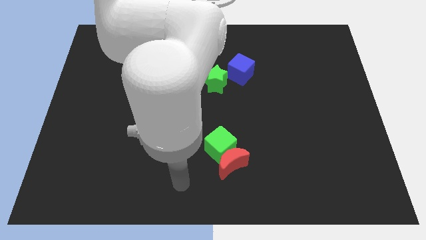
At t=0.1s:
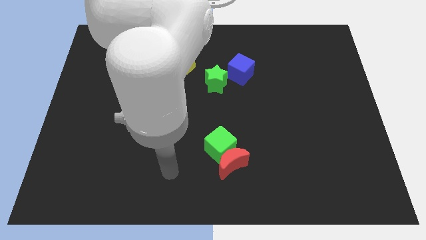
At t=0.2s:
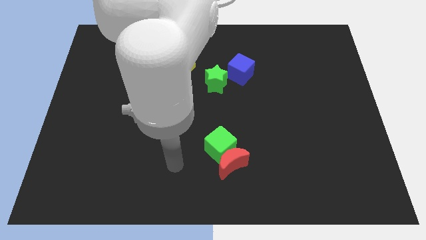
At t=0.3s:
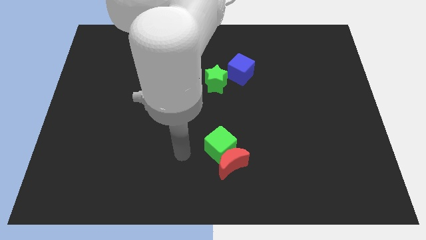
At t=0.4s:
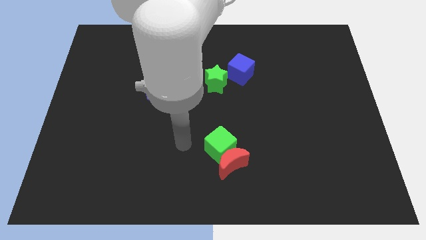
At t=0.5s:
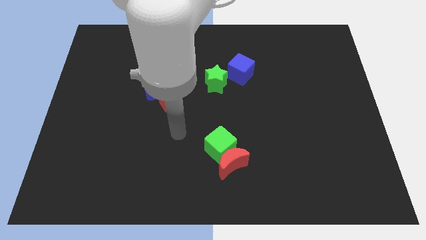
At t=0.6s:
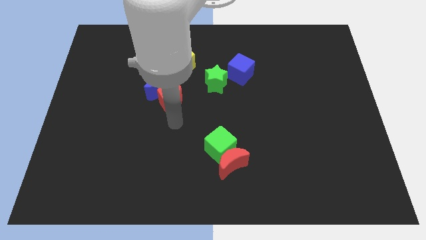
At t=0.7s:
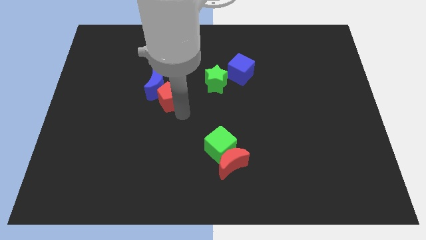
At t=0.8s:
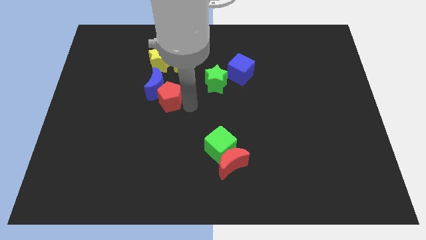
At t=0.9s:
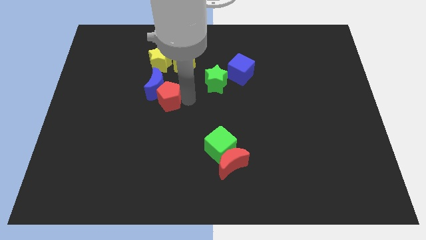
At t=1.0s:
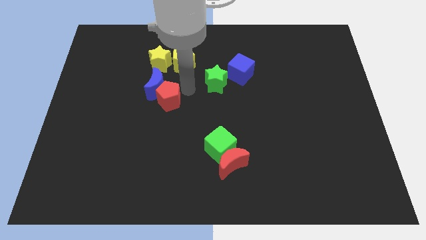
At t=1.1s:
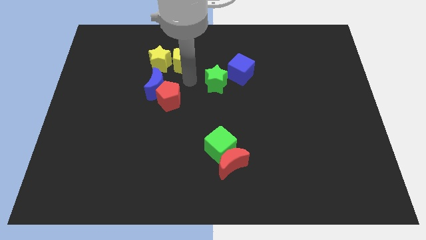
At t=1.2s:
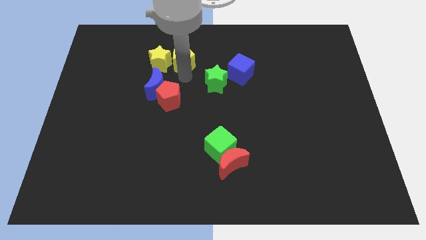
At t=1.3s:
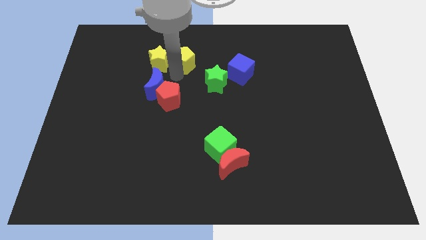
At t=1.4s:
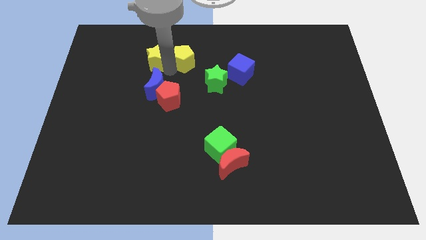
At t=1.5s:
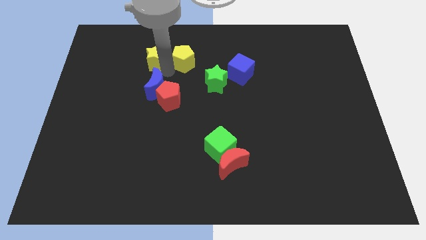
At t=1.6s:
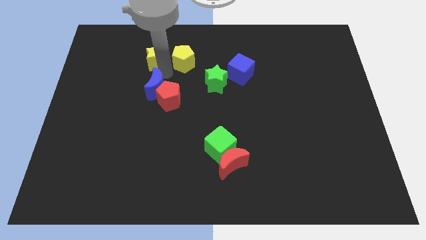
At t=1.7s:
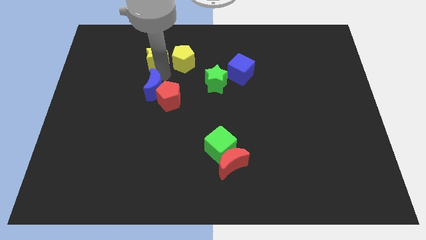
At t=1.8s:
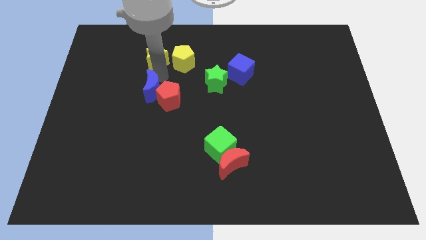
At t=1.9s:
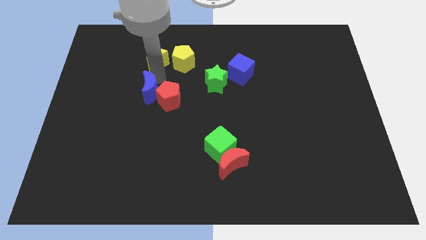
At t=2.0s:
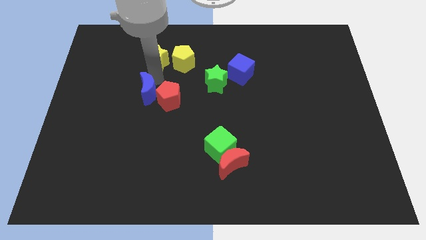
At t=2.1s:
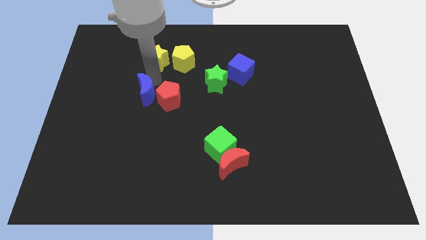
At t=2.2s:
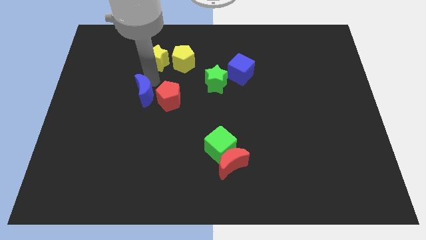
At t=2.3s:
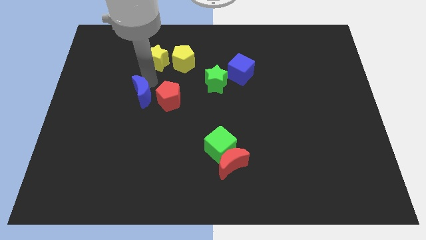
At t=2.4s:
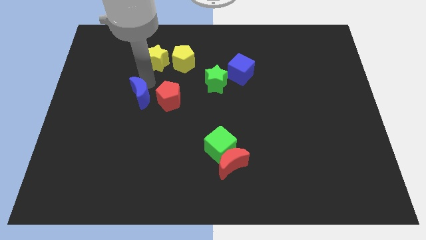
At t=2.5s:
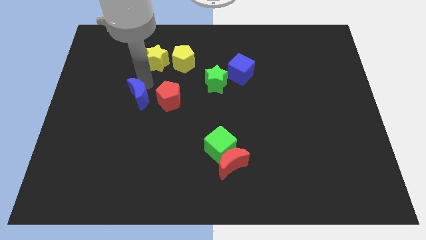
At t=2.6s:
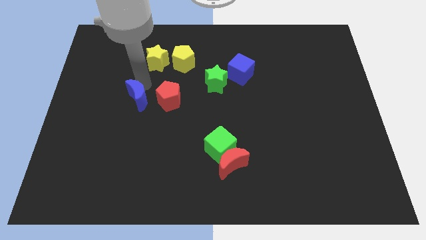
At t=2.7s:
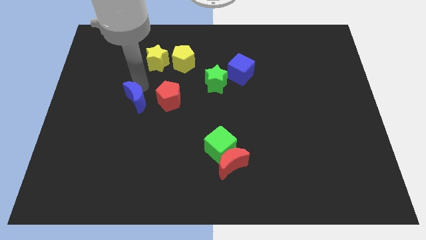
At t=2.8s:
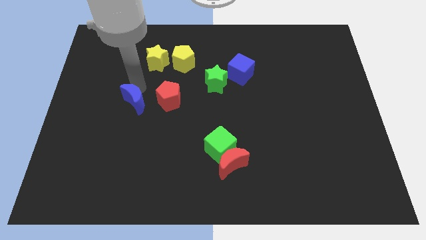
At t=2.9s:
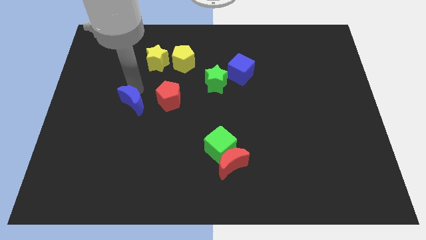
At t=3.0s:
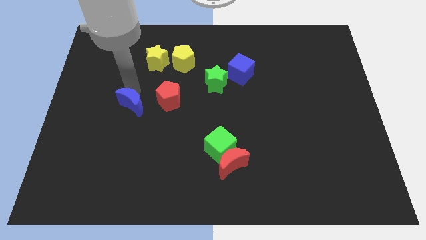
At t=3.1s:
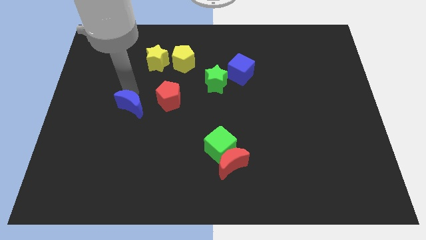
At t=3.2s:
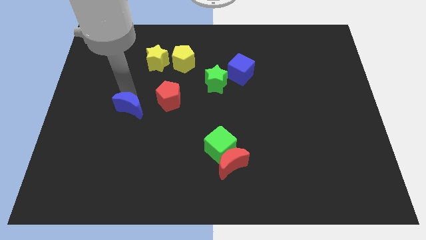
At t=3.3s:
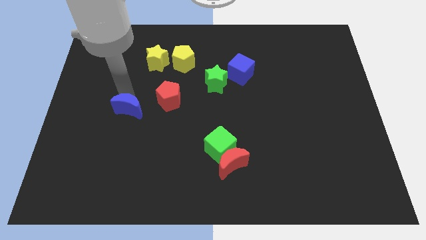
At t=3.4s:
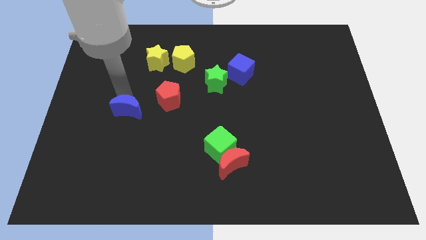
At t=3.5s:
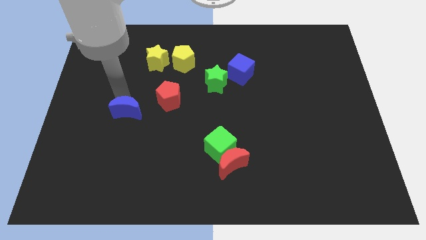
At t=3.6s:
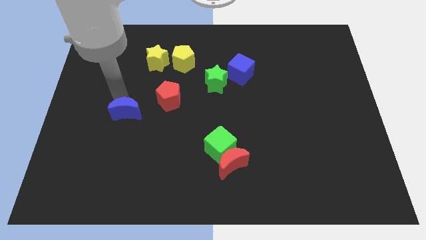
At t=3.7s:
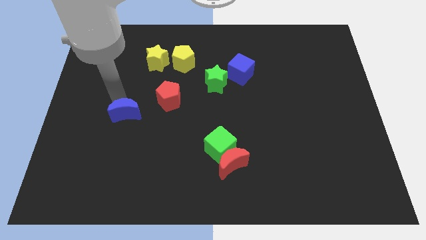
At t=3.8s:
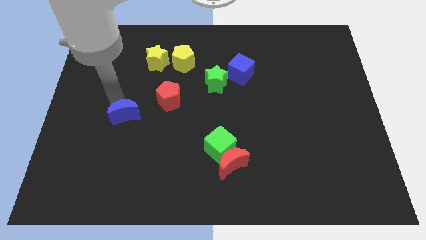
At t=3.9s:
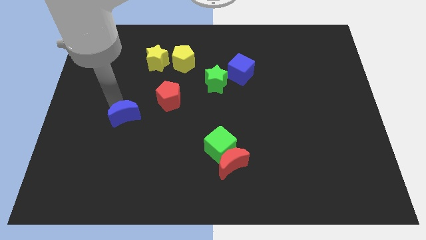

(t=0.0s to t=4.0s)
move the blue moon slightly downwards

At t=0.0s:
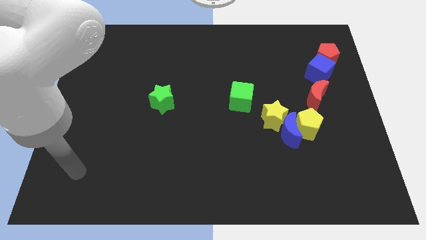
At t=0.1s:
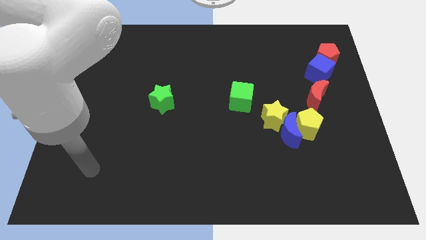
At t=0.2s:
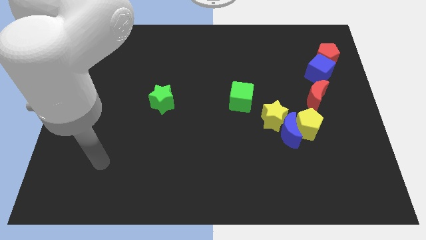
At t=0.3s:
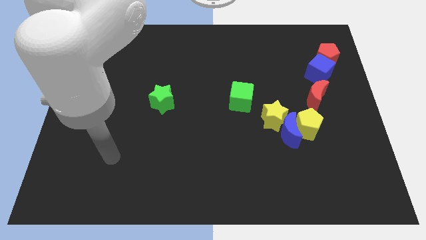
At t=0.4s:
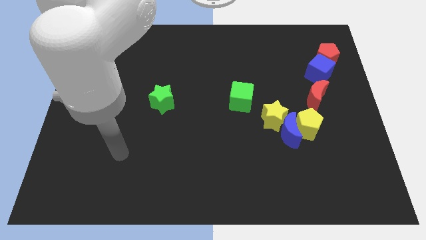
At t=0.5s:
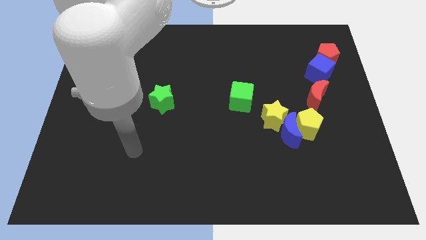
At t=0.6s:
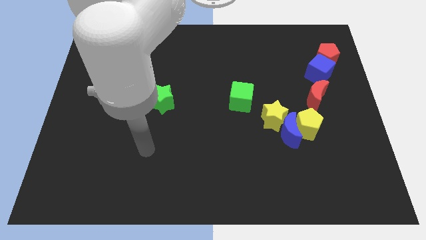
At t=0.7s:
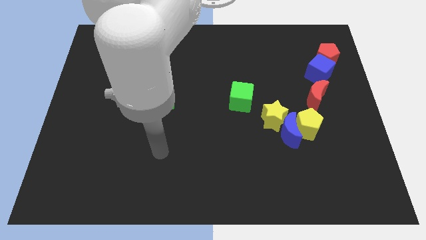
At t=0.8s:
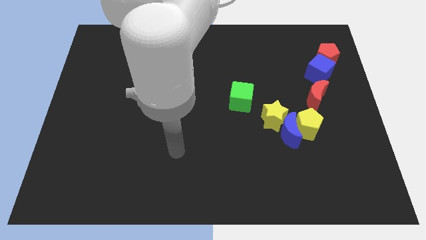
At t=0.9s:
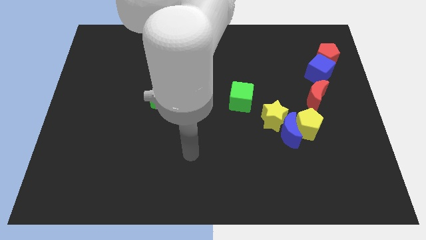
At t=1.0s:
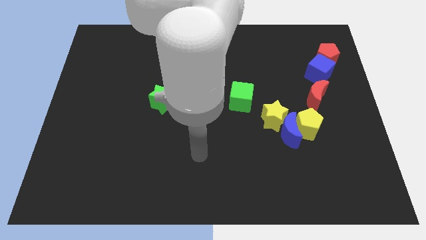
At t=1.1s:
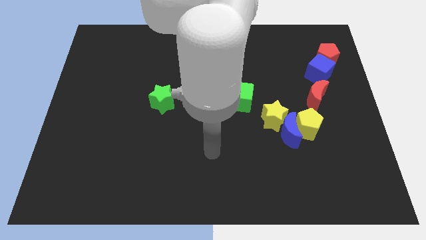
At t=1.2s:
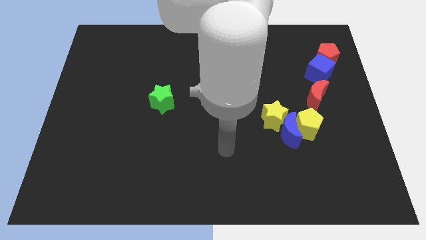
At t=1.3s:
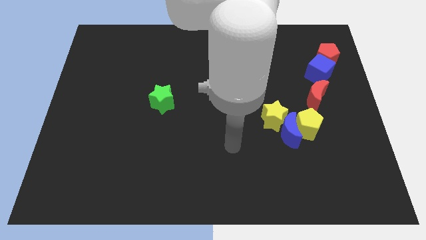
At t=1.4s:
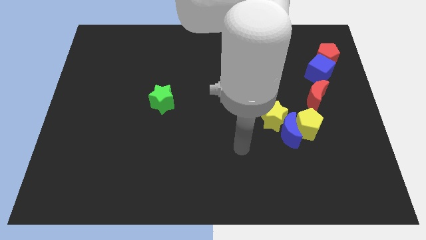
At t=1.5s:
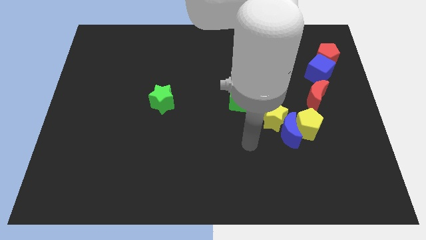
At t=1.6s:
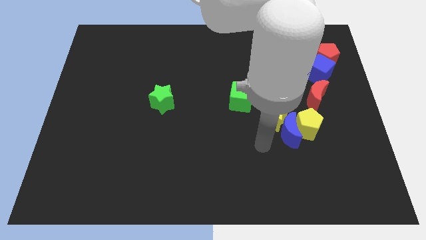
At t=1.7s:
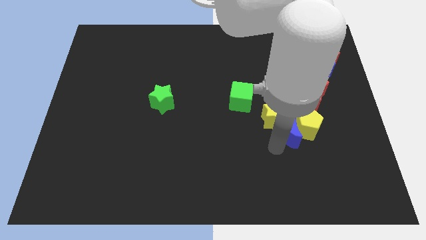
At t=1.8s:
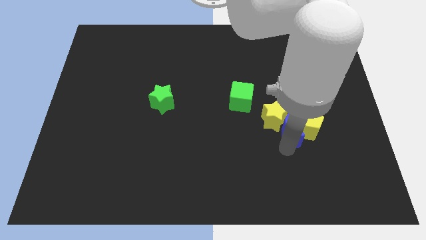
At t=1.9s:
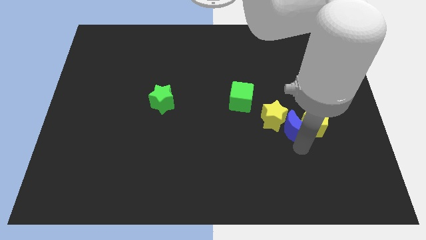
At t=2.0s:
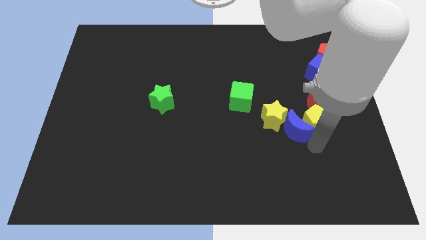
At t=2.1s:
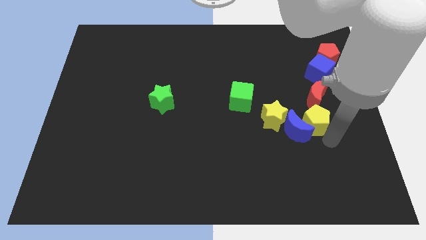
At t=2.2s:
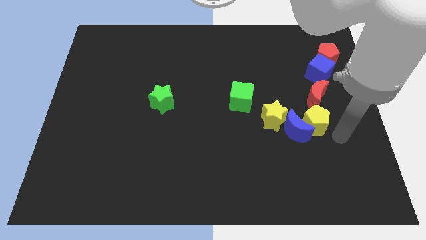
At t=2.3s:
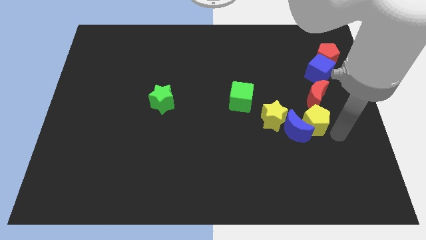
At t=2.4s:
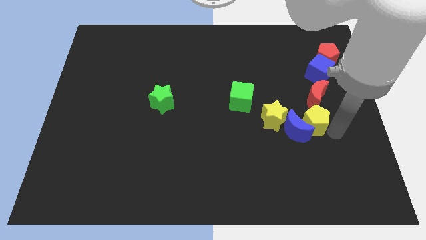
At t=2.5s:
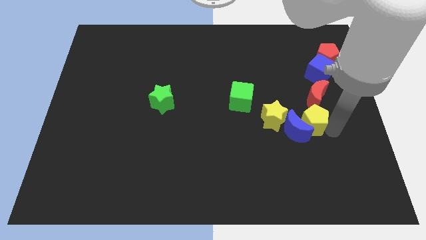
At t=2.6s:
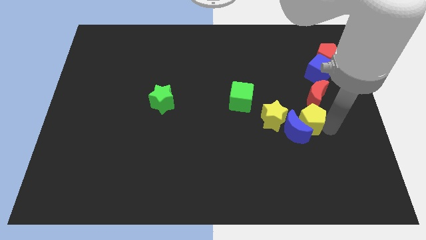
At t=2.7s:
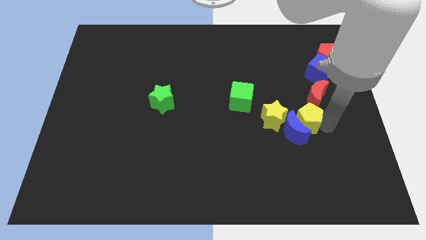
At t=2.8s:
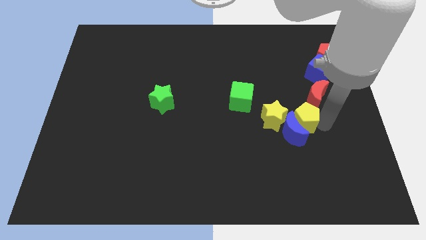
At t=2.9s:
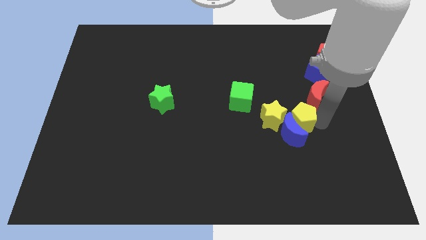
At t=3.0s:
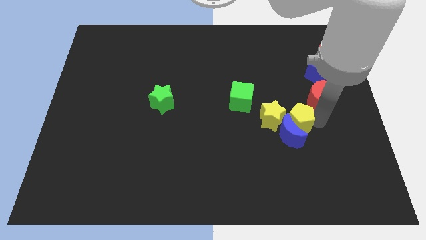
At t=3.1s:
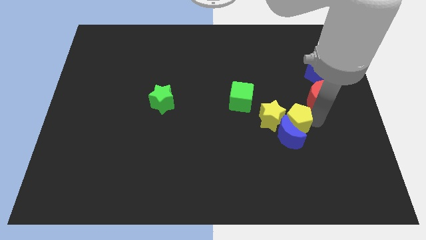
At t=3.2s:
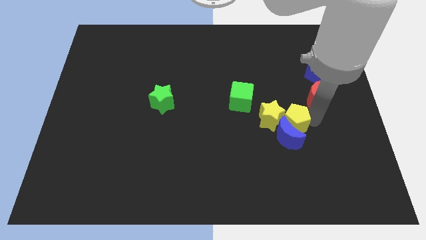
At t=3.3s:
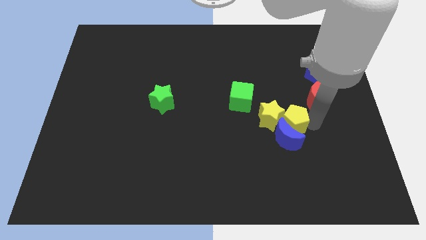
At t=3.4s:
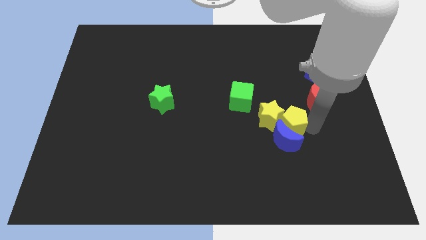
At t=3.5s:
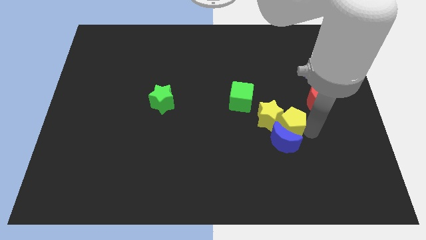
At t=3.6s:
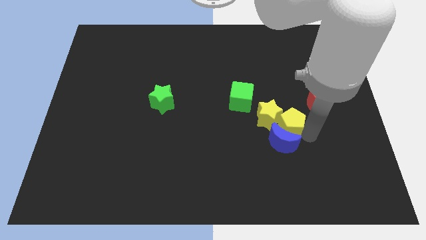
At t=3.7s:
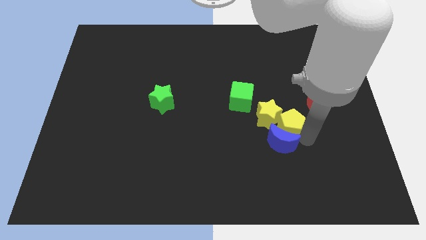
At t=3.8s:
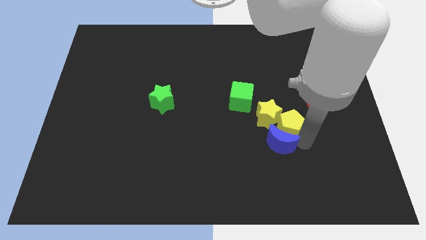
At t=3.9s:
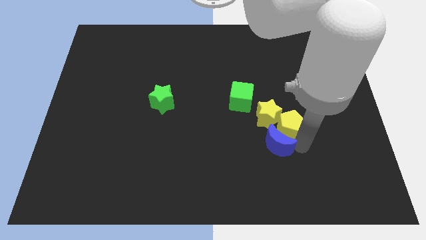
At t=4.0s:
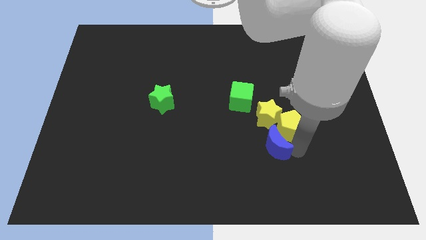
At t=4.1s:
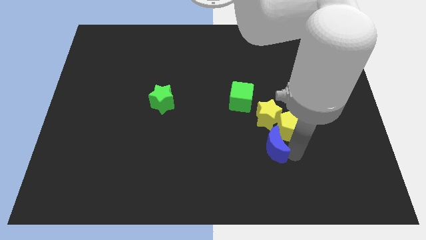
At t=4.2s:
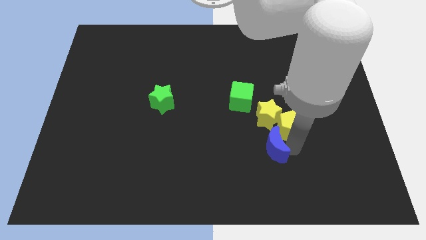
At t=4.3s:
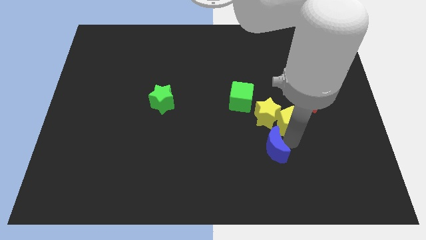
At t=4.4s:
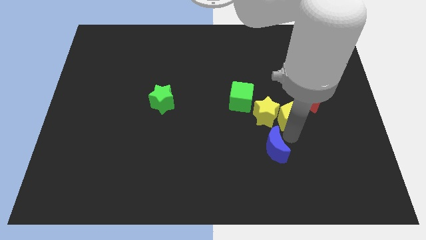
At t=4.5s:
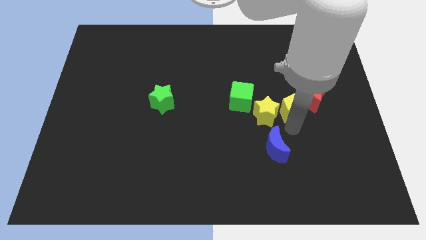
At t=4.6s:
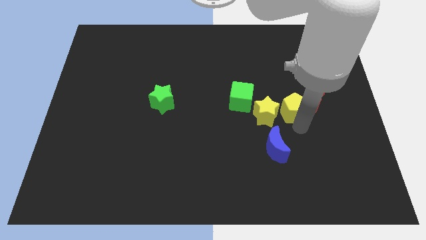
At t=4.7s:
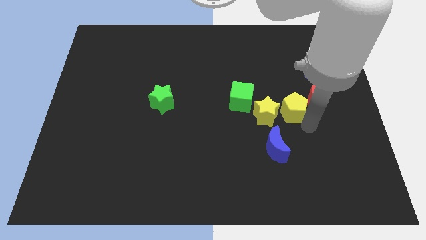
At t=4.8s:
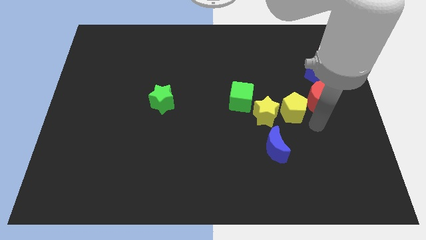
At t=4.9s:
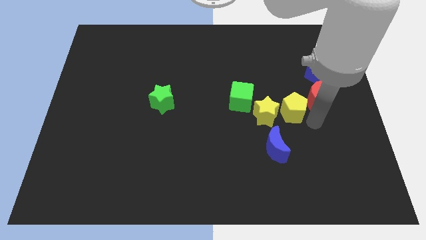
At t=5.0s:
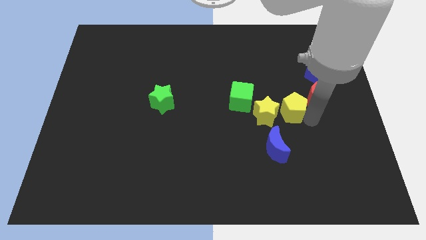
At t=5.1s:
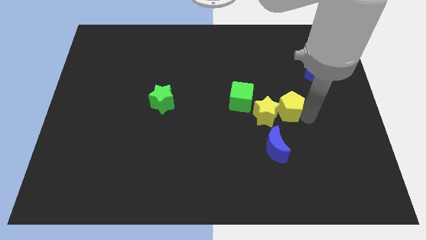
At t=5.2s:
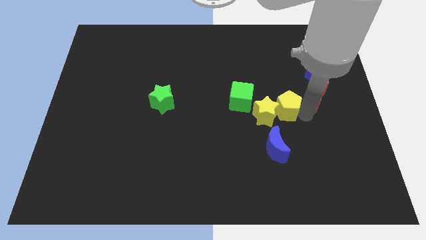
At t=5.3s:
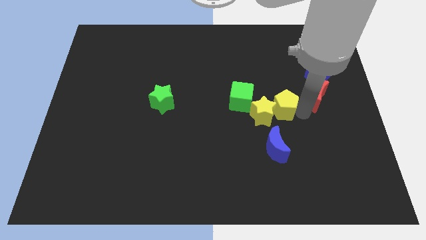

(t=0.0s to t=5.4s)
slightly push the yellow pentagon up and left
